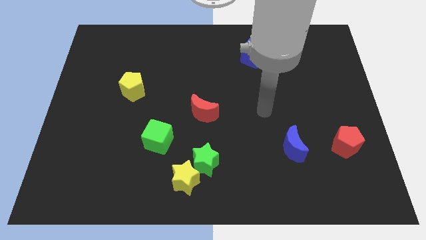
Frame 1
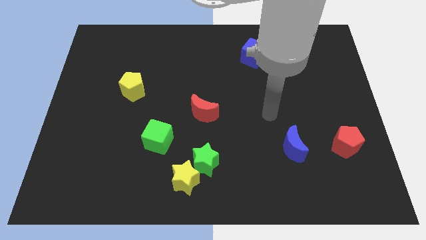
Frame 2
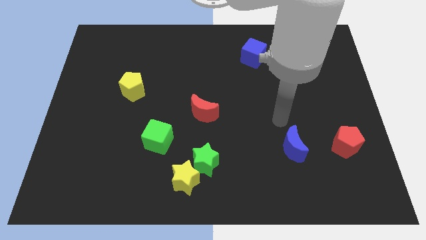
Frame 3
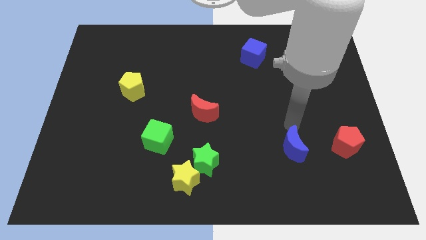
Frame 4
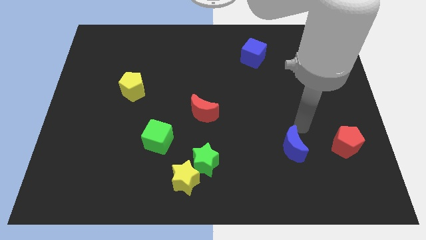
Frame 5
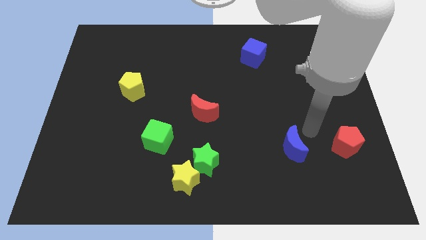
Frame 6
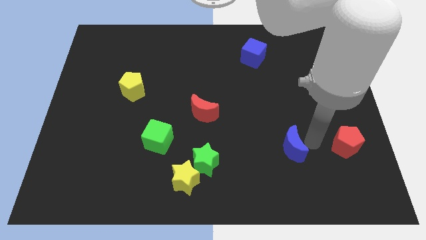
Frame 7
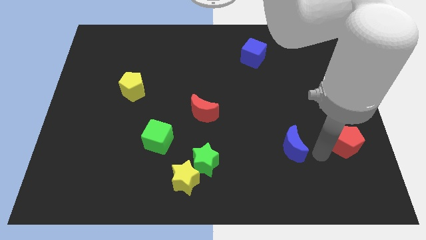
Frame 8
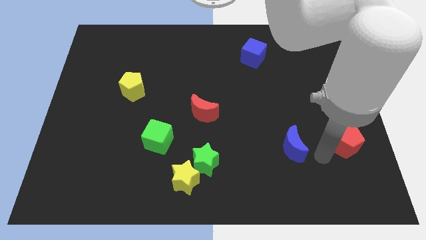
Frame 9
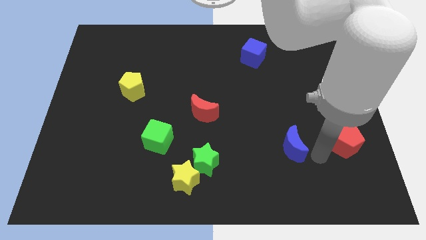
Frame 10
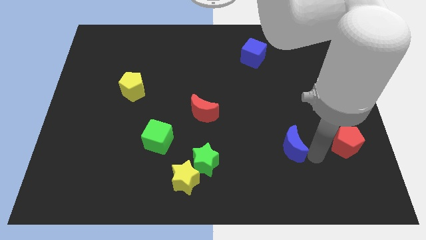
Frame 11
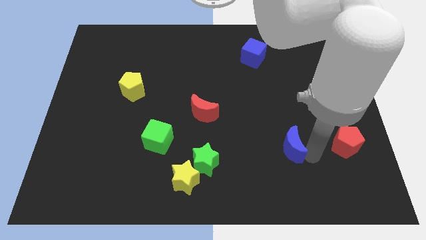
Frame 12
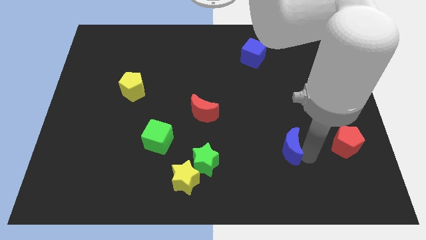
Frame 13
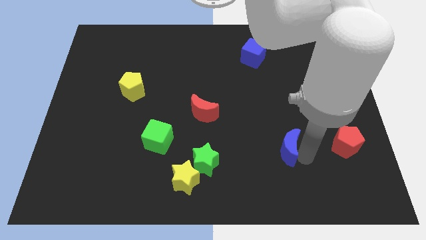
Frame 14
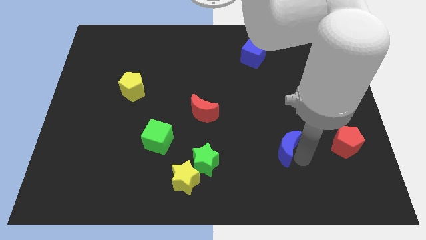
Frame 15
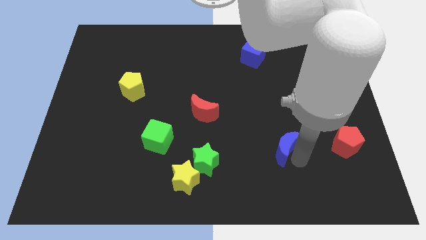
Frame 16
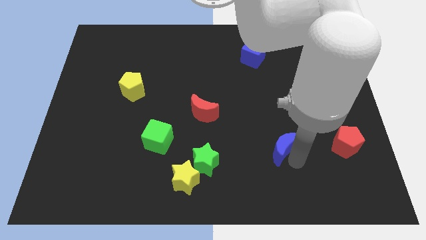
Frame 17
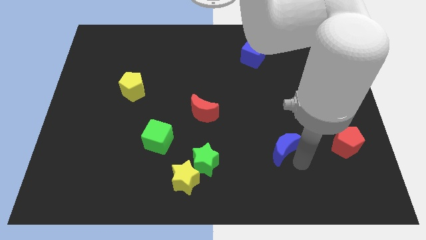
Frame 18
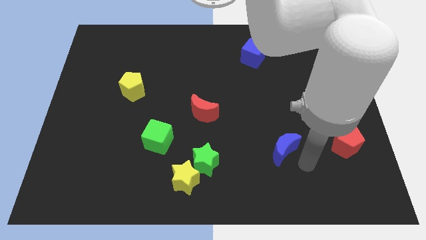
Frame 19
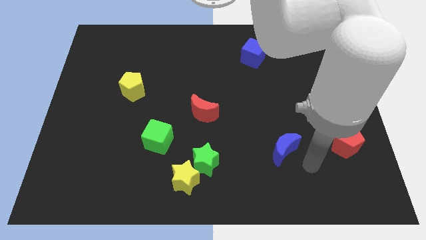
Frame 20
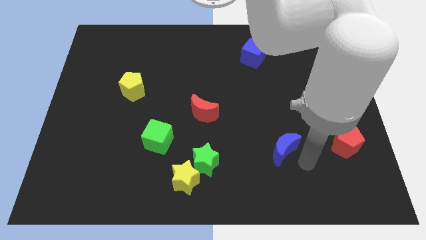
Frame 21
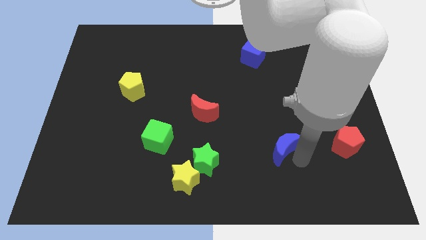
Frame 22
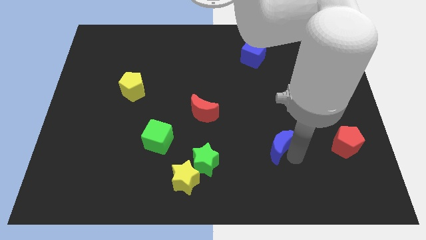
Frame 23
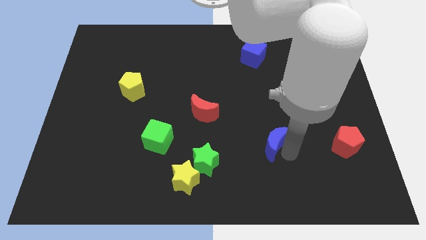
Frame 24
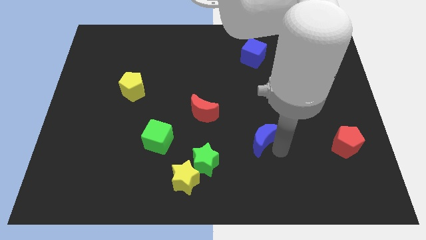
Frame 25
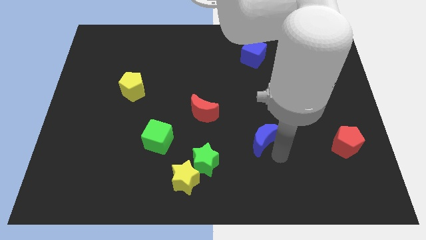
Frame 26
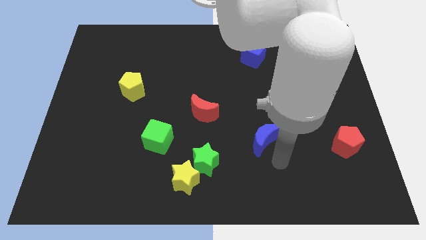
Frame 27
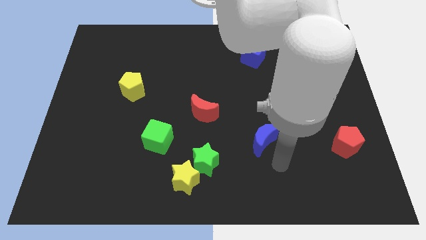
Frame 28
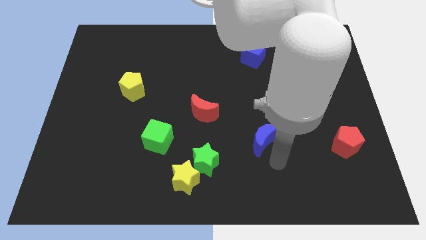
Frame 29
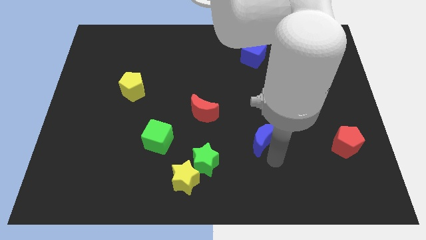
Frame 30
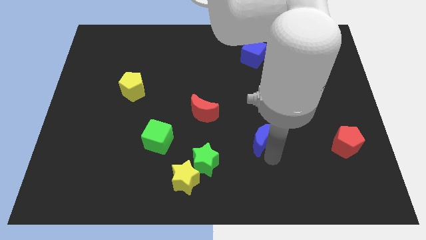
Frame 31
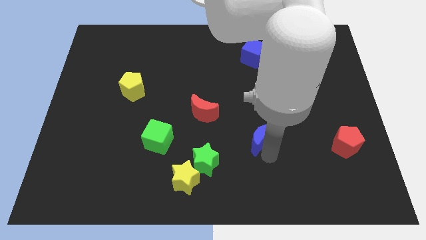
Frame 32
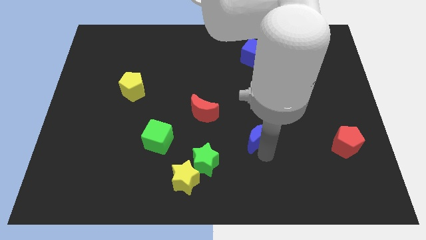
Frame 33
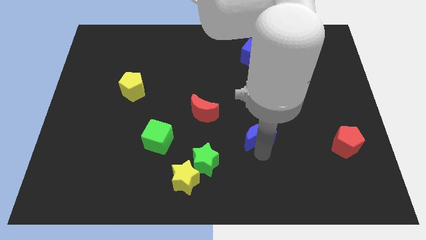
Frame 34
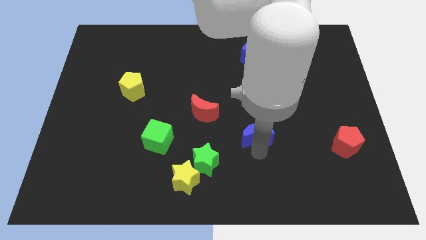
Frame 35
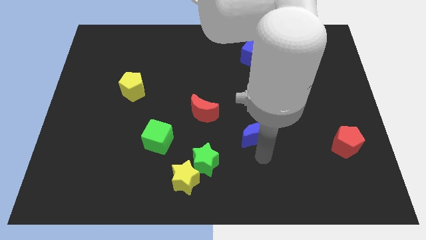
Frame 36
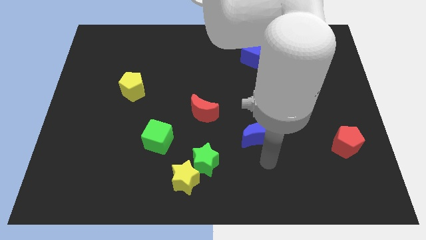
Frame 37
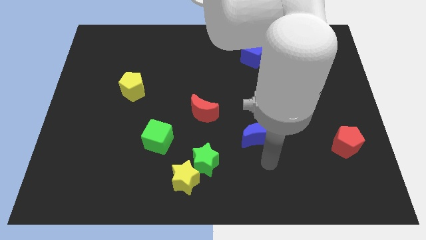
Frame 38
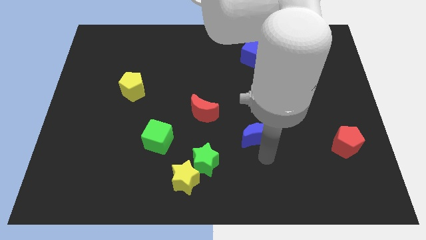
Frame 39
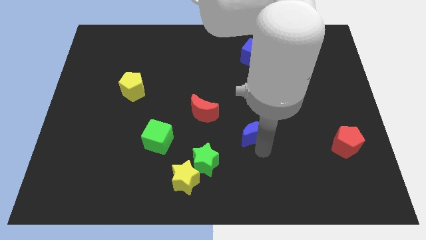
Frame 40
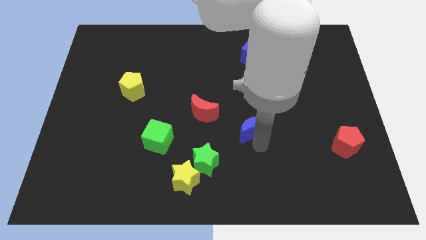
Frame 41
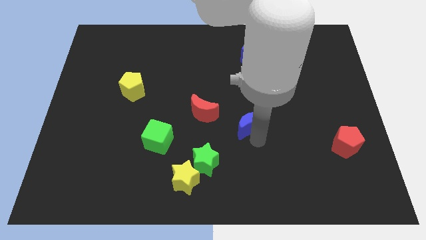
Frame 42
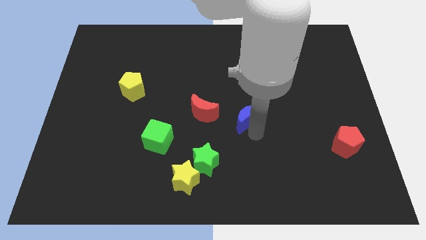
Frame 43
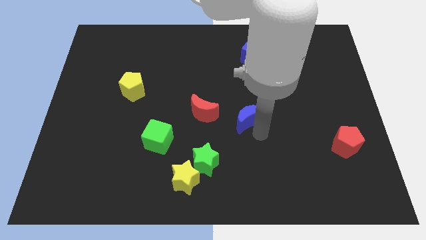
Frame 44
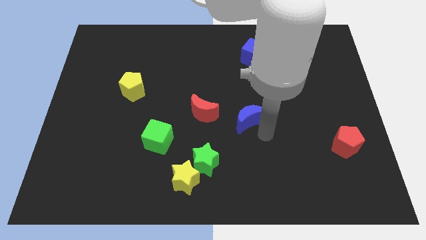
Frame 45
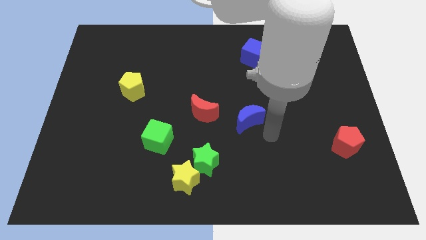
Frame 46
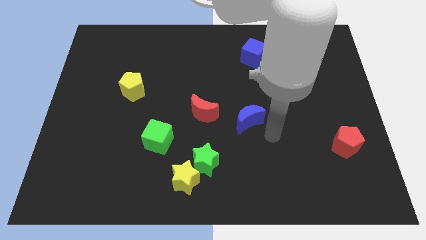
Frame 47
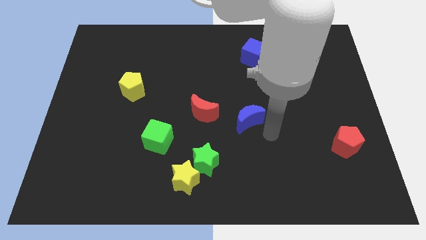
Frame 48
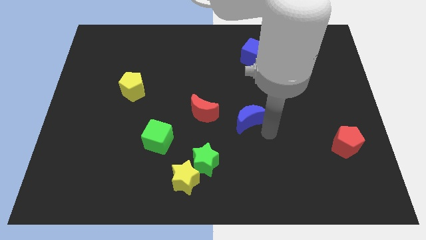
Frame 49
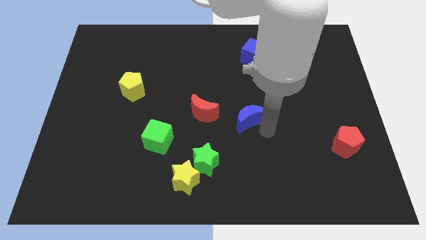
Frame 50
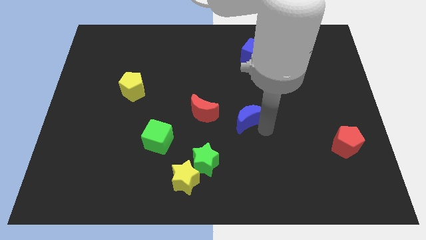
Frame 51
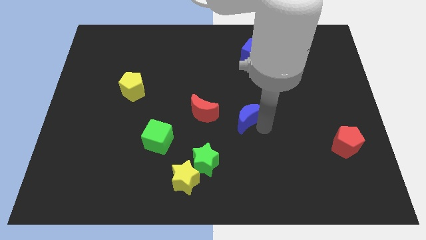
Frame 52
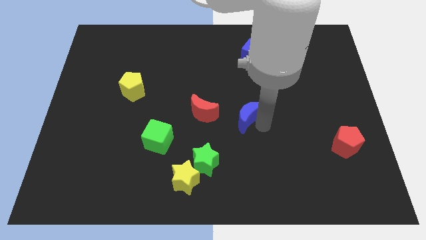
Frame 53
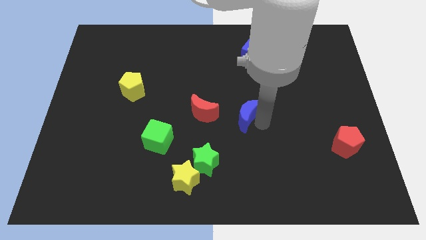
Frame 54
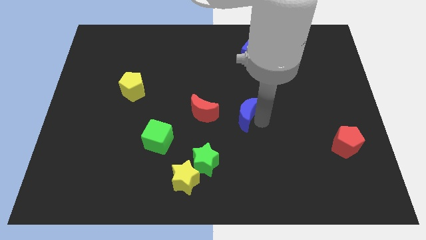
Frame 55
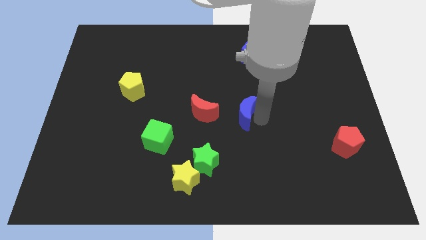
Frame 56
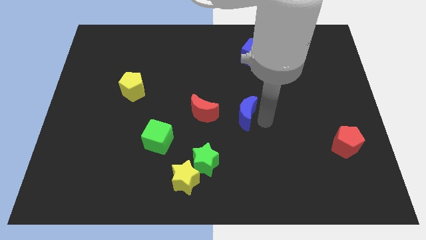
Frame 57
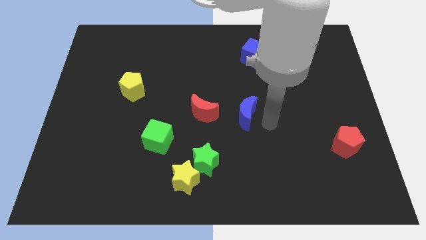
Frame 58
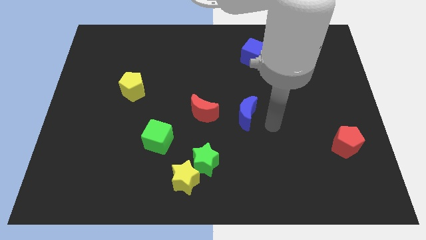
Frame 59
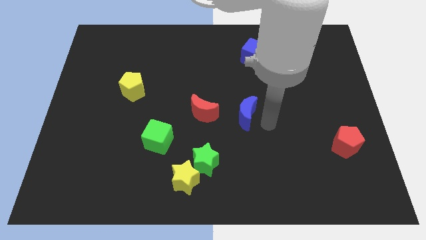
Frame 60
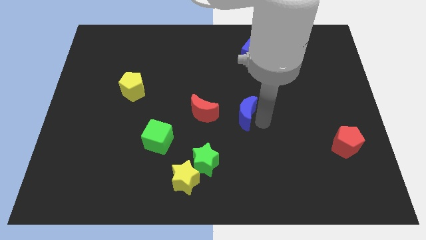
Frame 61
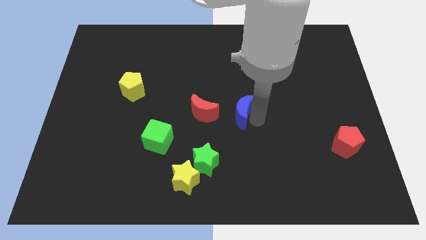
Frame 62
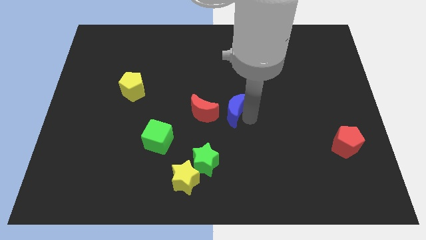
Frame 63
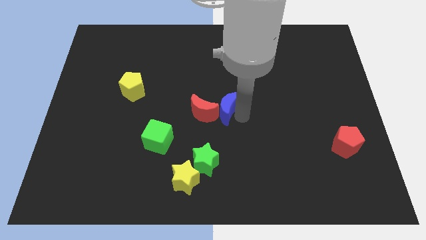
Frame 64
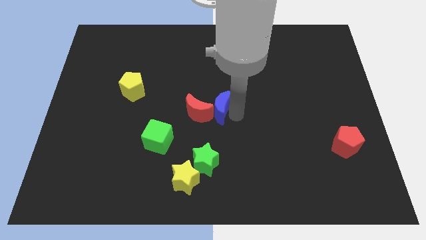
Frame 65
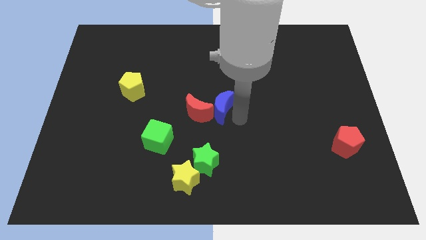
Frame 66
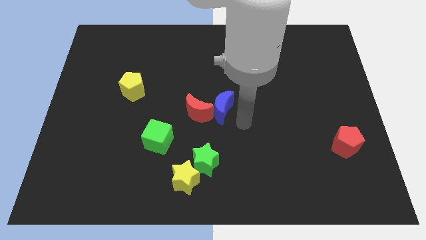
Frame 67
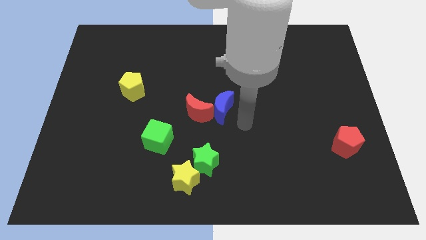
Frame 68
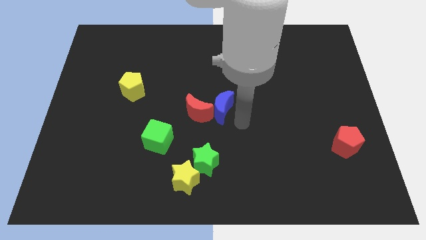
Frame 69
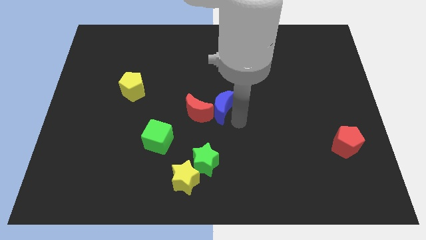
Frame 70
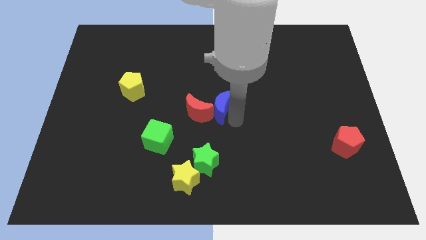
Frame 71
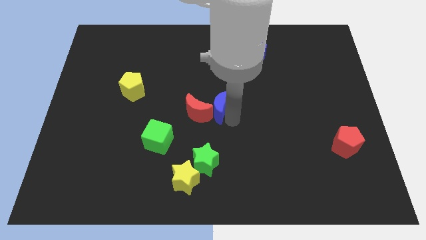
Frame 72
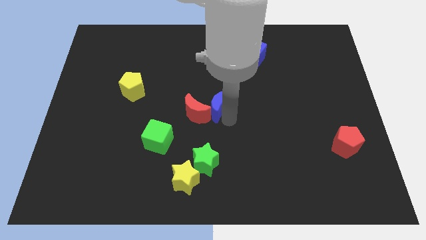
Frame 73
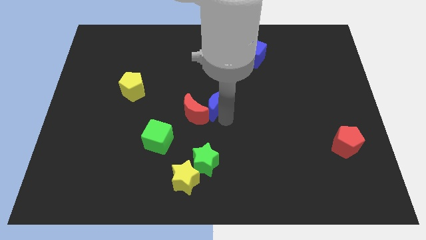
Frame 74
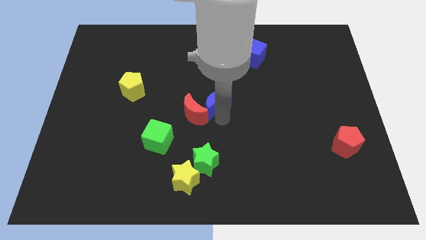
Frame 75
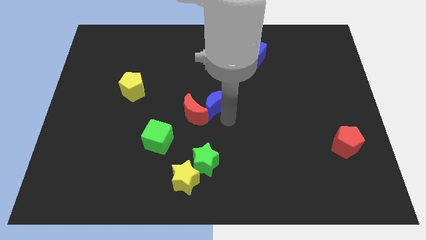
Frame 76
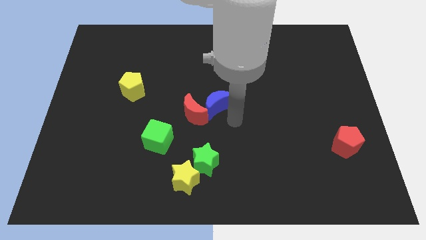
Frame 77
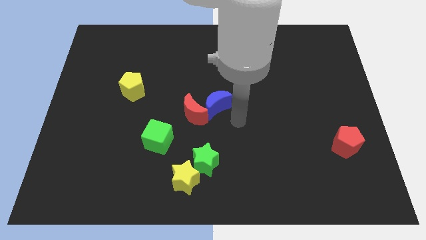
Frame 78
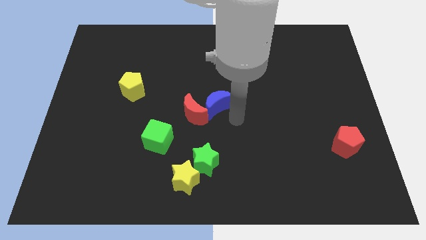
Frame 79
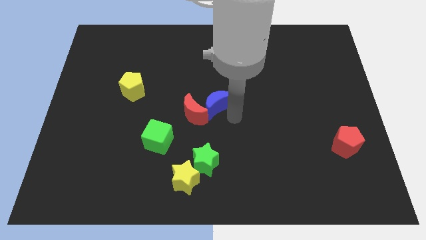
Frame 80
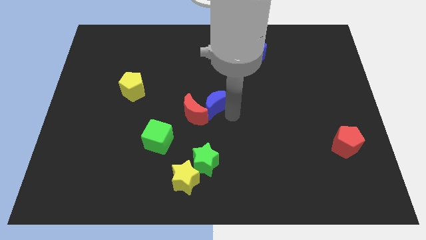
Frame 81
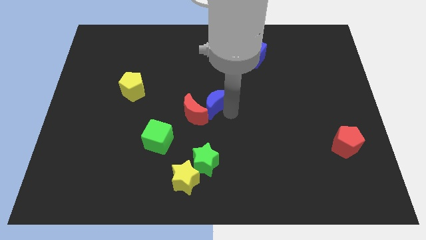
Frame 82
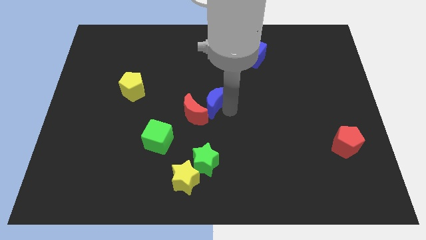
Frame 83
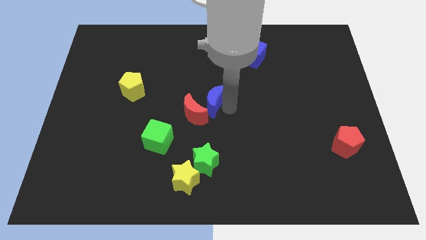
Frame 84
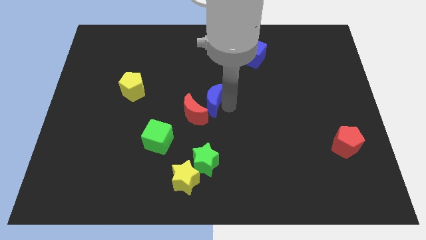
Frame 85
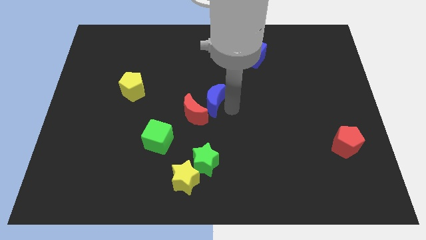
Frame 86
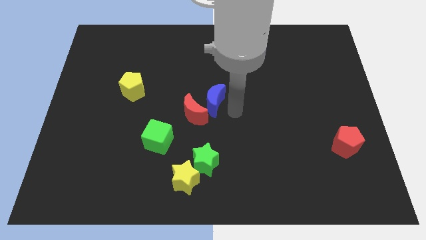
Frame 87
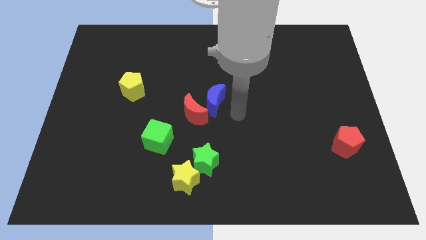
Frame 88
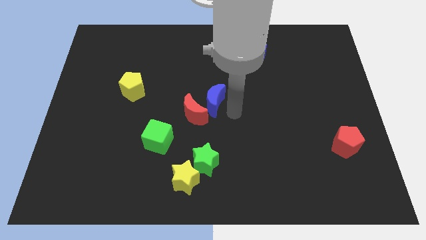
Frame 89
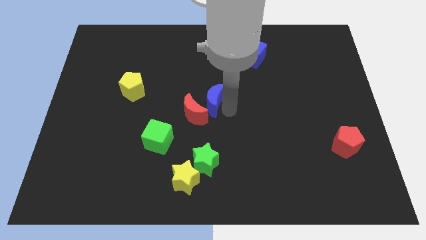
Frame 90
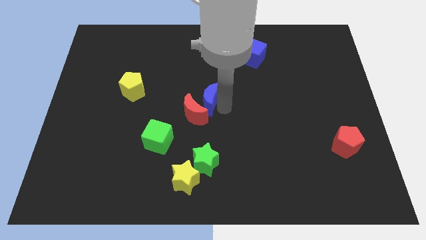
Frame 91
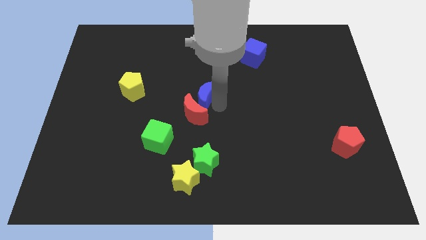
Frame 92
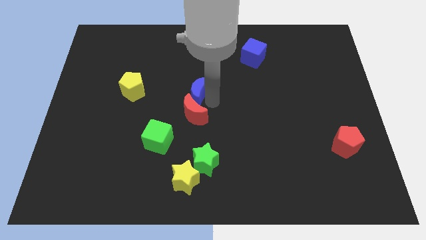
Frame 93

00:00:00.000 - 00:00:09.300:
push the blue moon just right of the yellow pentagon
